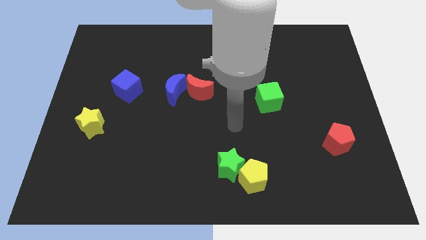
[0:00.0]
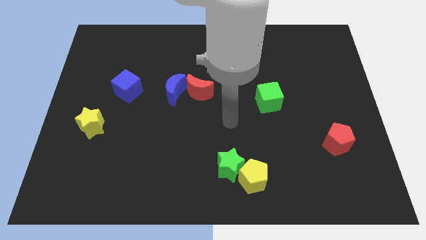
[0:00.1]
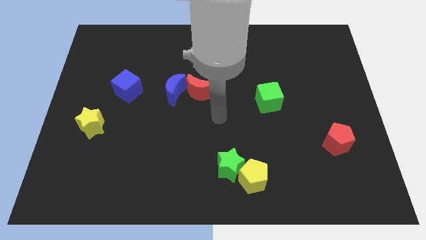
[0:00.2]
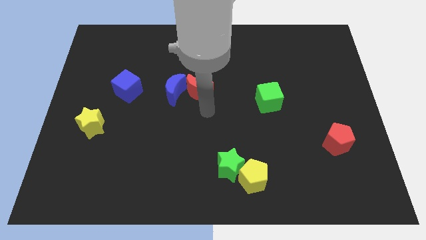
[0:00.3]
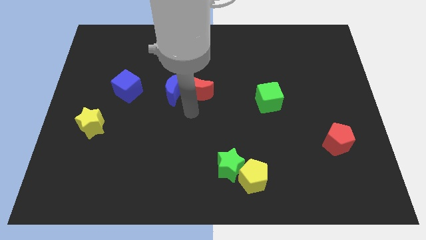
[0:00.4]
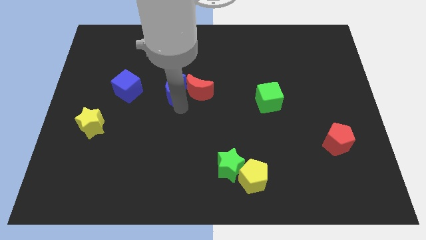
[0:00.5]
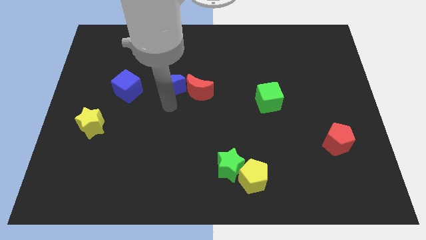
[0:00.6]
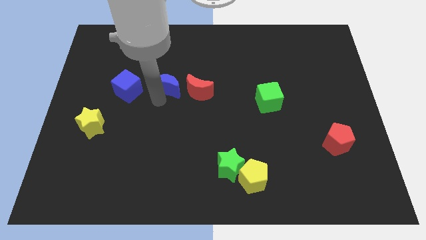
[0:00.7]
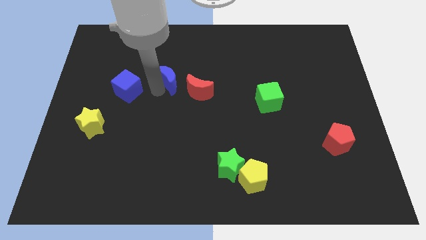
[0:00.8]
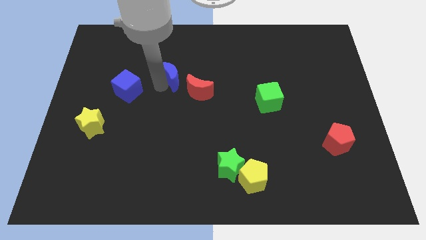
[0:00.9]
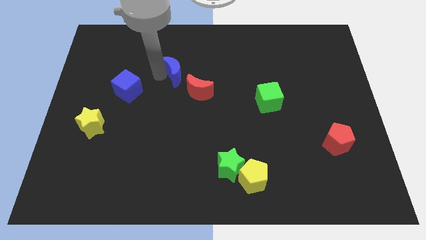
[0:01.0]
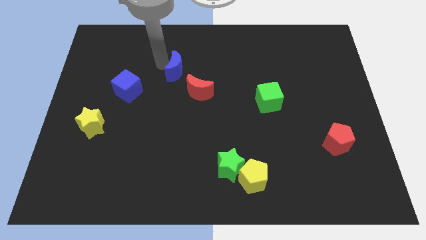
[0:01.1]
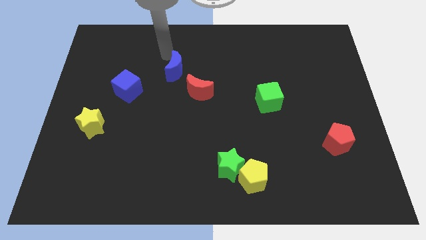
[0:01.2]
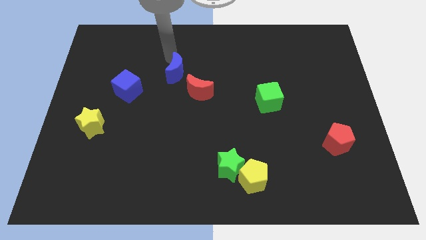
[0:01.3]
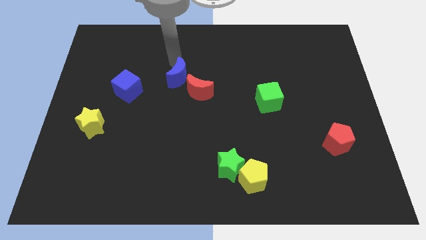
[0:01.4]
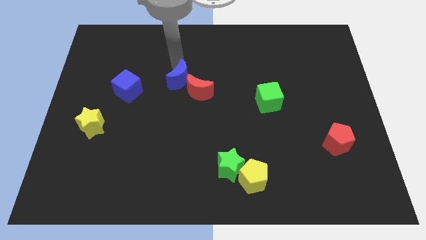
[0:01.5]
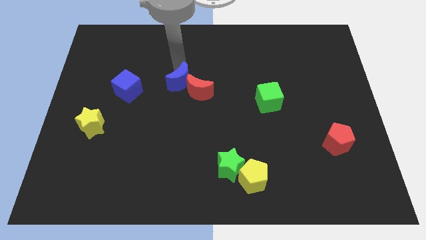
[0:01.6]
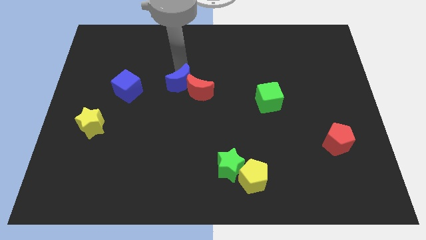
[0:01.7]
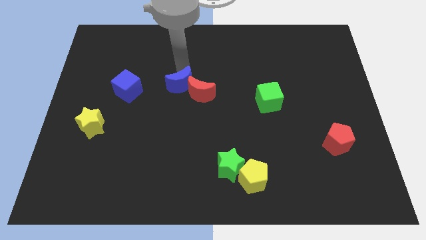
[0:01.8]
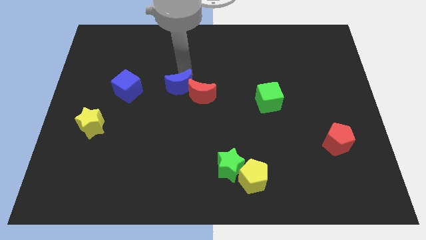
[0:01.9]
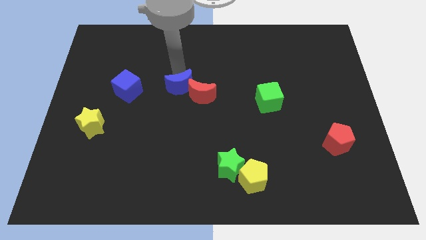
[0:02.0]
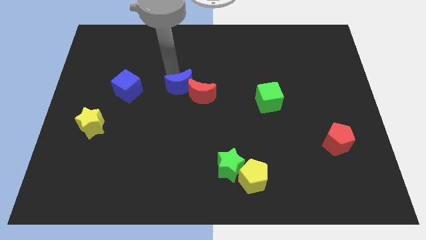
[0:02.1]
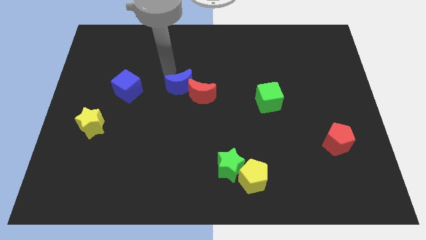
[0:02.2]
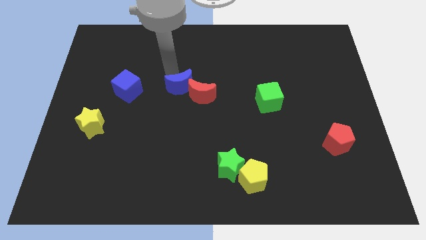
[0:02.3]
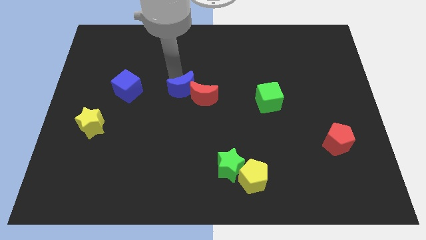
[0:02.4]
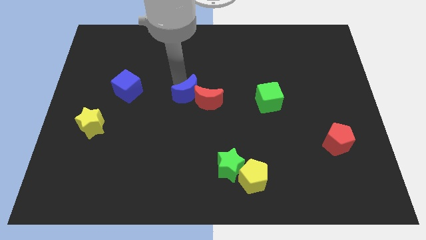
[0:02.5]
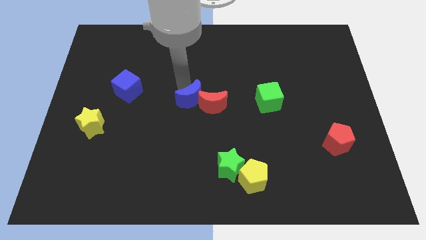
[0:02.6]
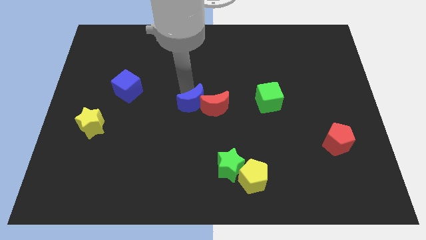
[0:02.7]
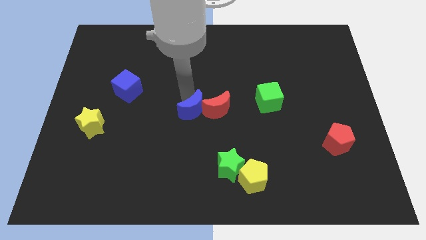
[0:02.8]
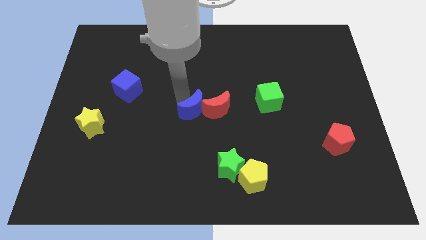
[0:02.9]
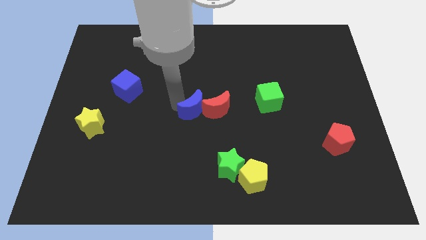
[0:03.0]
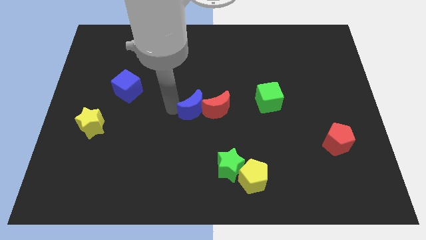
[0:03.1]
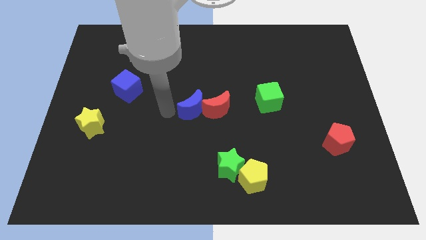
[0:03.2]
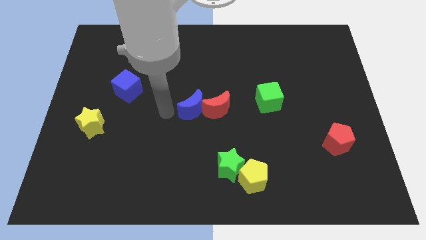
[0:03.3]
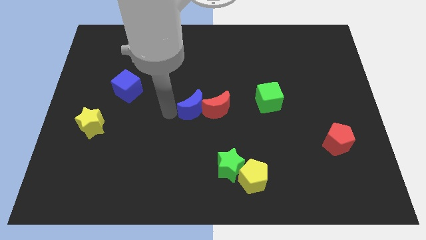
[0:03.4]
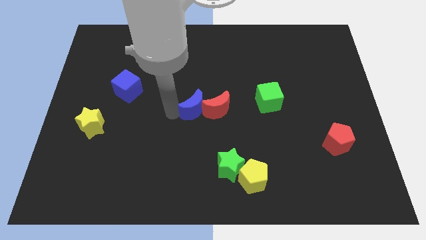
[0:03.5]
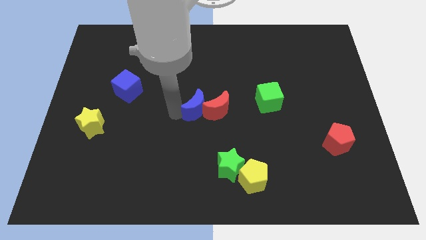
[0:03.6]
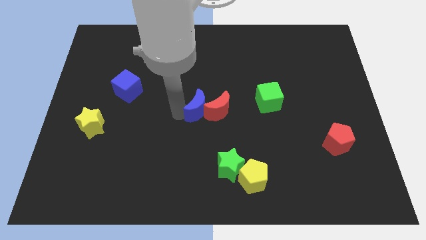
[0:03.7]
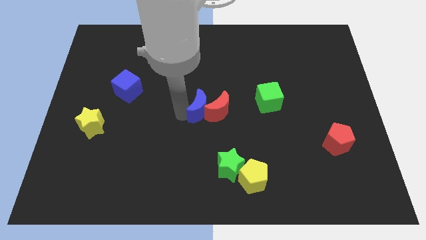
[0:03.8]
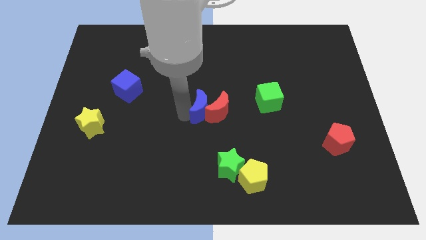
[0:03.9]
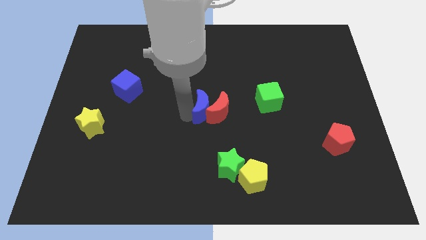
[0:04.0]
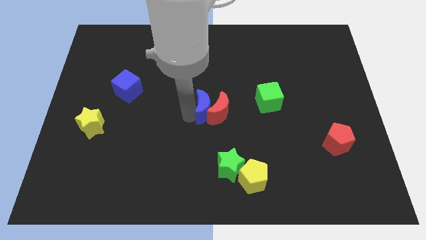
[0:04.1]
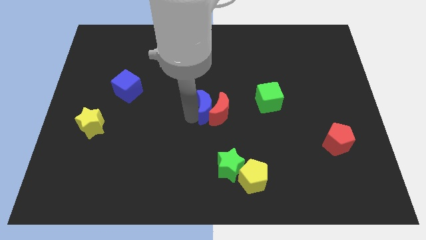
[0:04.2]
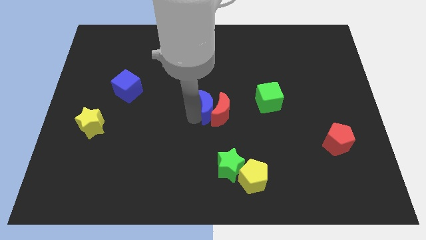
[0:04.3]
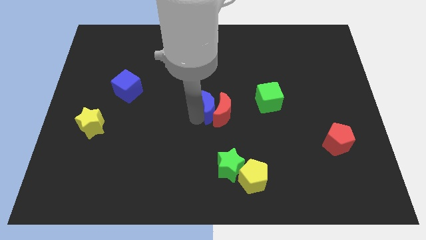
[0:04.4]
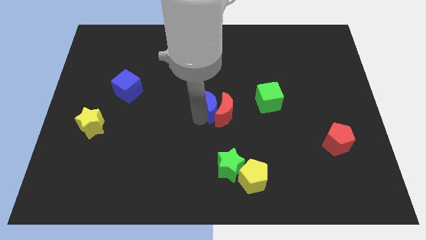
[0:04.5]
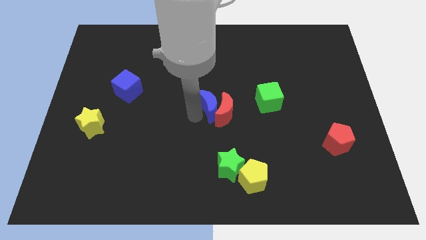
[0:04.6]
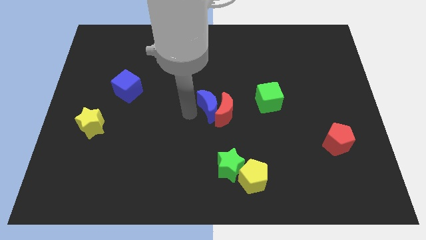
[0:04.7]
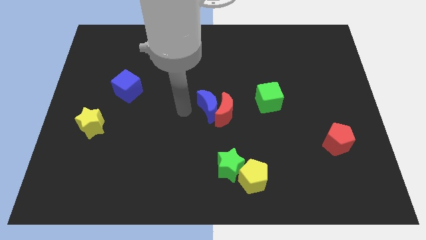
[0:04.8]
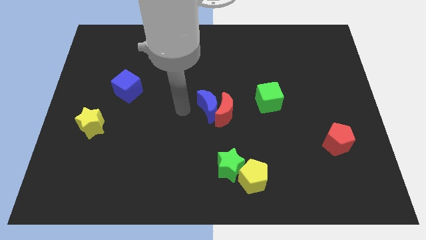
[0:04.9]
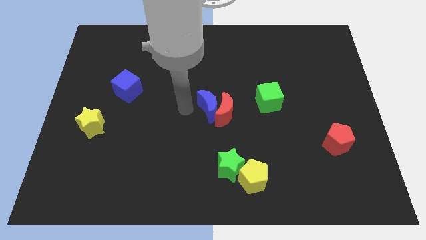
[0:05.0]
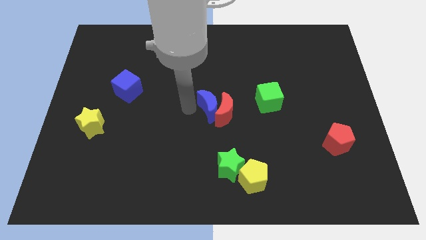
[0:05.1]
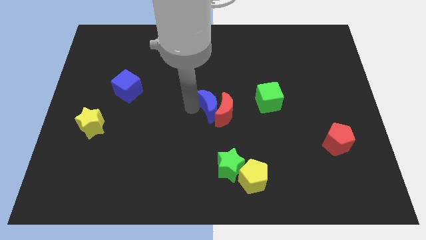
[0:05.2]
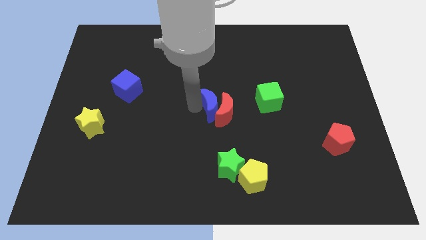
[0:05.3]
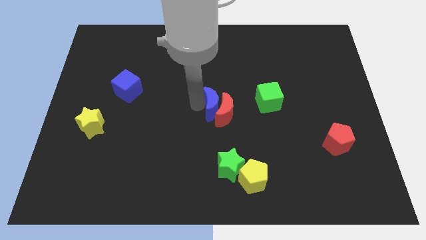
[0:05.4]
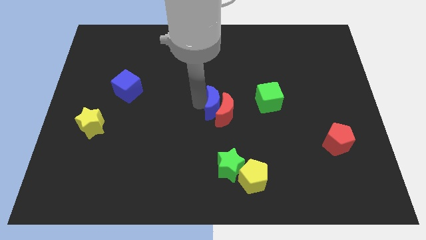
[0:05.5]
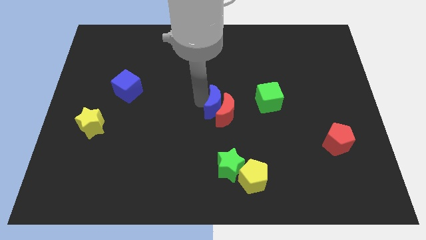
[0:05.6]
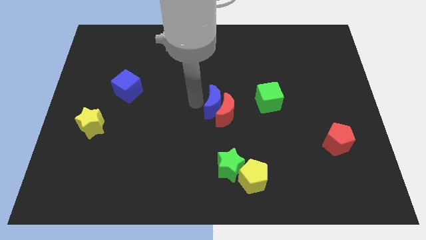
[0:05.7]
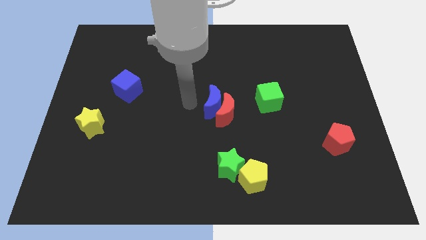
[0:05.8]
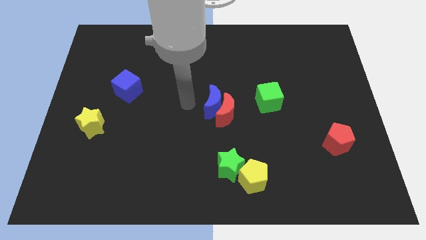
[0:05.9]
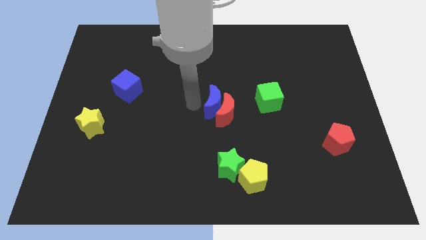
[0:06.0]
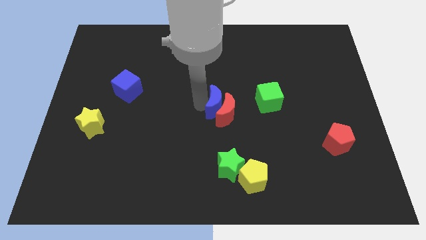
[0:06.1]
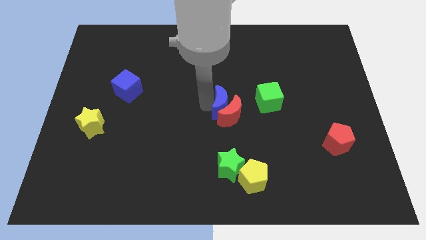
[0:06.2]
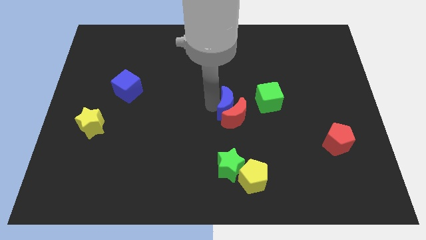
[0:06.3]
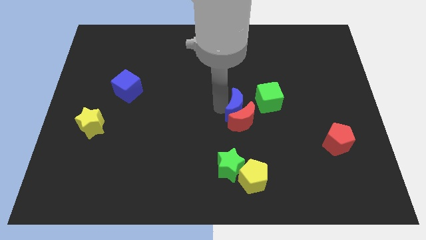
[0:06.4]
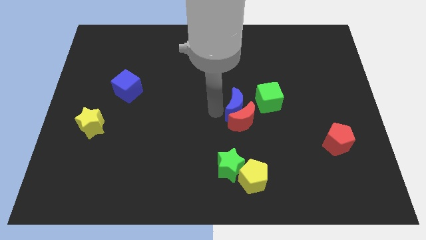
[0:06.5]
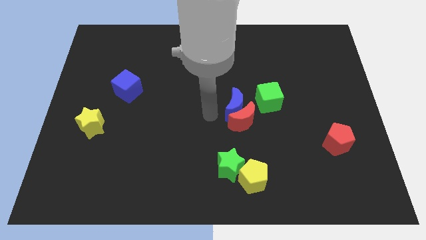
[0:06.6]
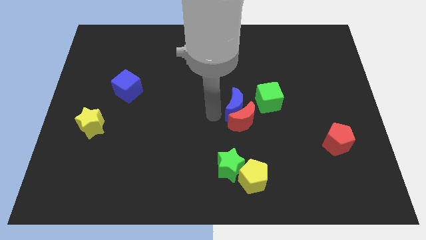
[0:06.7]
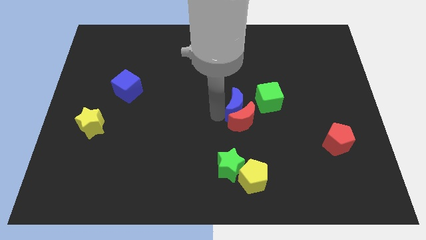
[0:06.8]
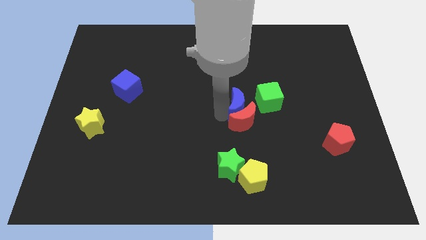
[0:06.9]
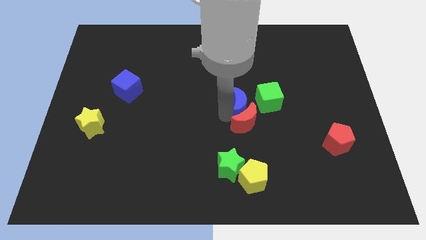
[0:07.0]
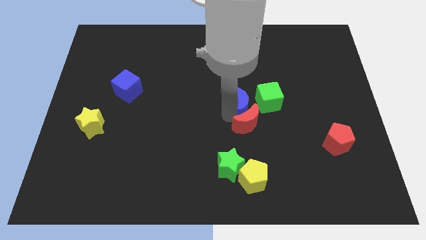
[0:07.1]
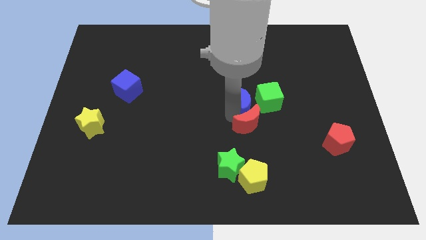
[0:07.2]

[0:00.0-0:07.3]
push the blue moon next to the green cube
